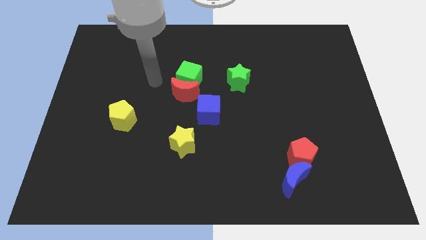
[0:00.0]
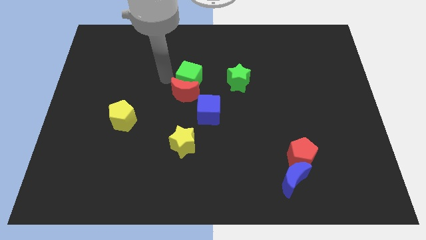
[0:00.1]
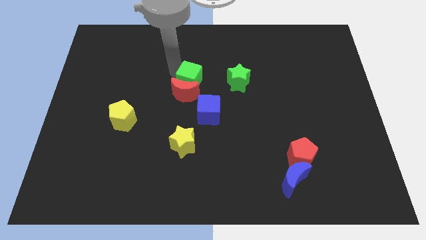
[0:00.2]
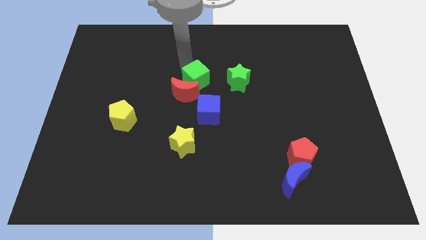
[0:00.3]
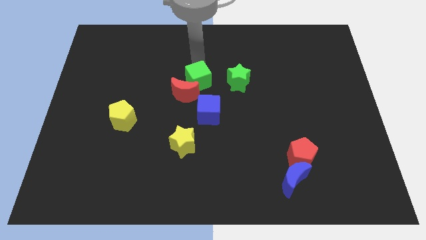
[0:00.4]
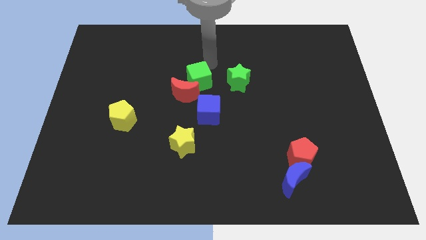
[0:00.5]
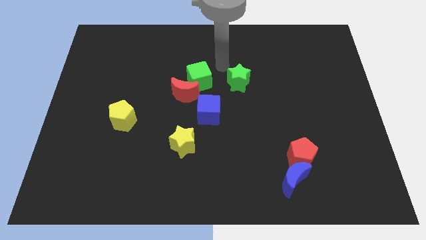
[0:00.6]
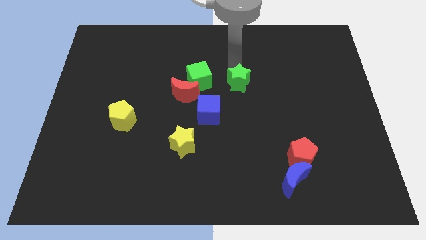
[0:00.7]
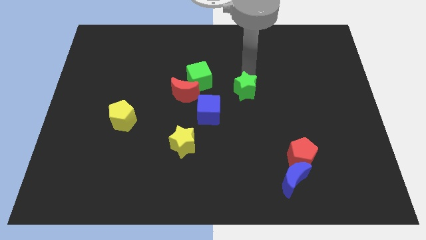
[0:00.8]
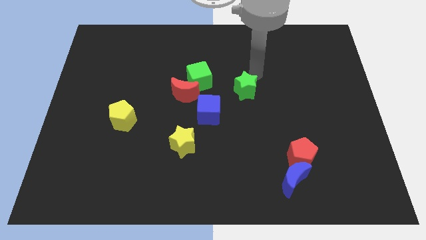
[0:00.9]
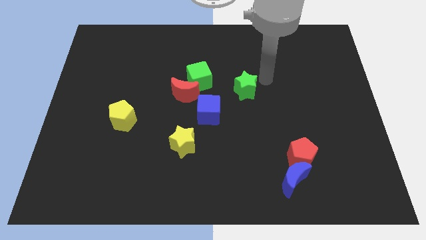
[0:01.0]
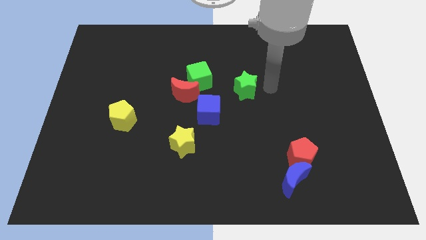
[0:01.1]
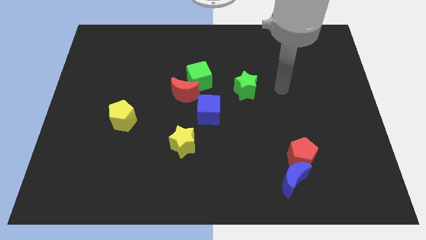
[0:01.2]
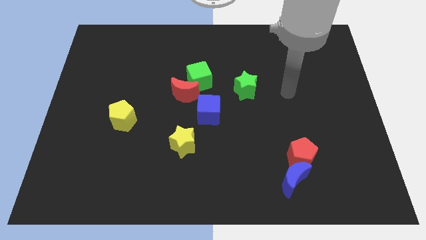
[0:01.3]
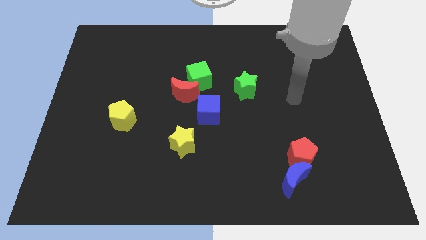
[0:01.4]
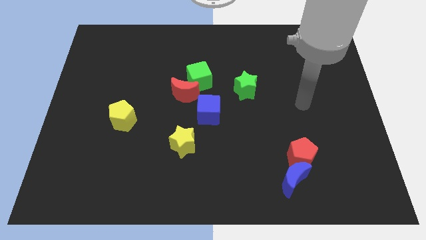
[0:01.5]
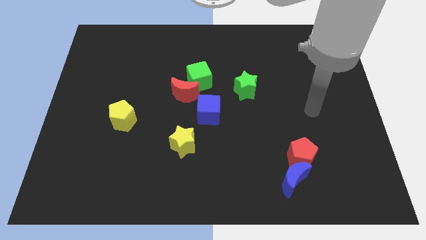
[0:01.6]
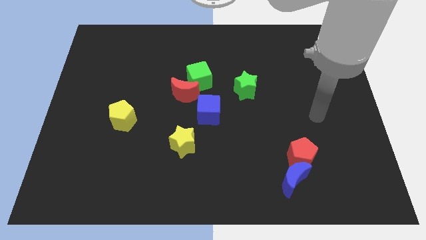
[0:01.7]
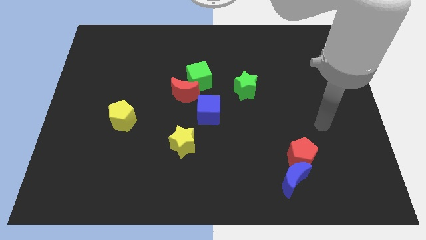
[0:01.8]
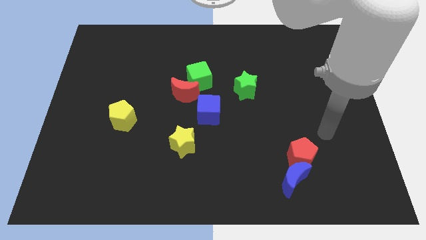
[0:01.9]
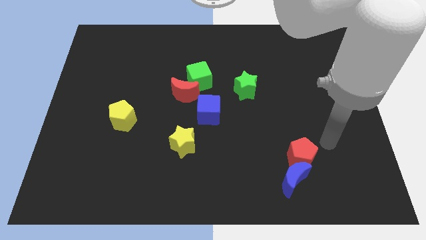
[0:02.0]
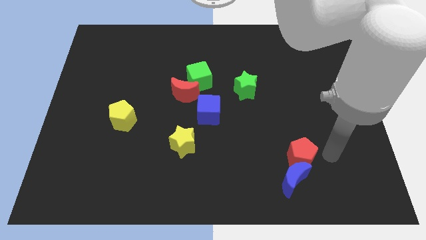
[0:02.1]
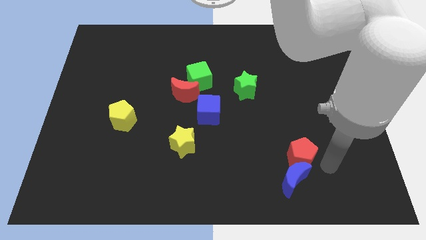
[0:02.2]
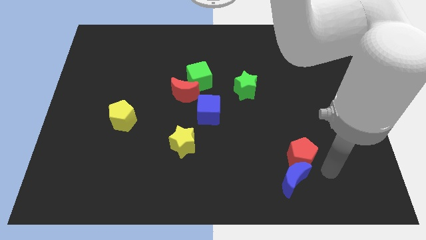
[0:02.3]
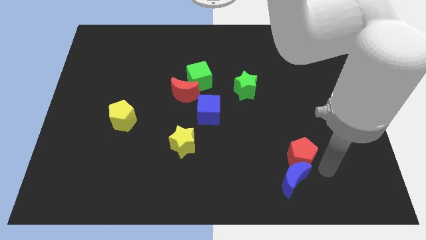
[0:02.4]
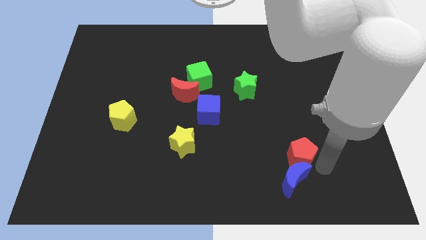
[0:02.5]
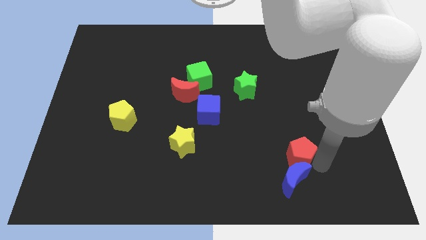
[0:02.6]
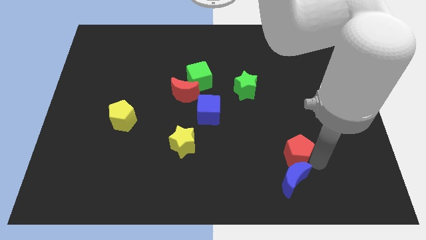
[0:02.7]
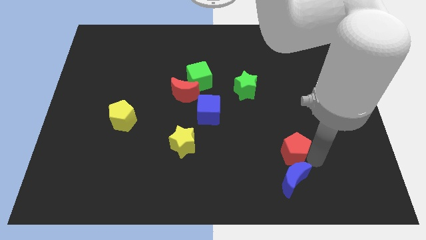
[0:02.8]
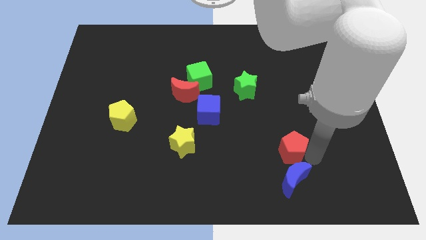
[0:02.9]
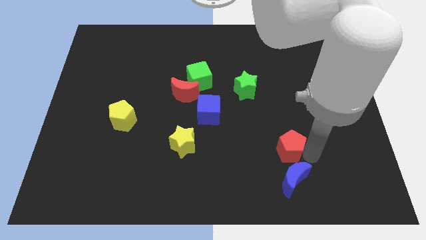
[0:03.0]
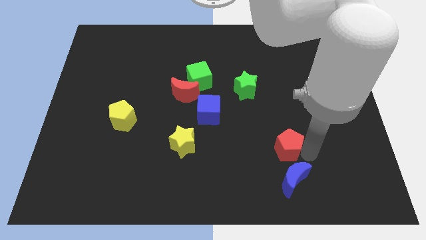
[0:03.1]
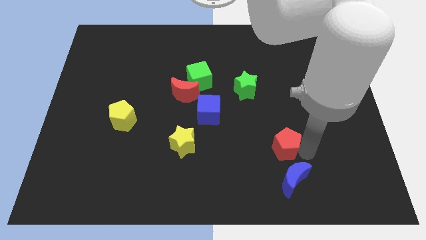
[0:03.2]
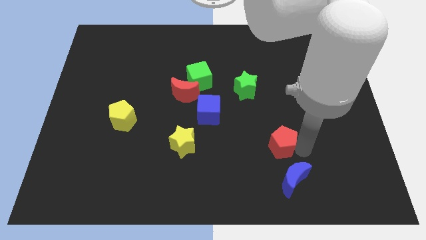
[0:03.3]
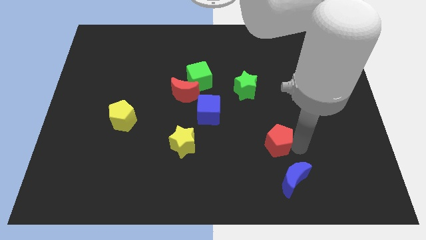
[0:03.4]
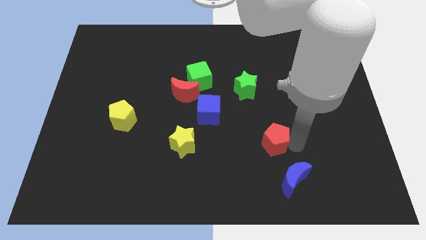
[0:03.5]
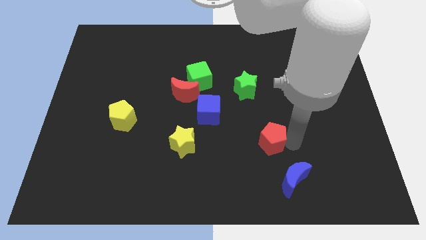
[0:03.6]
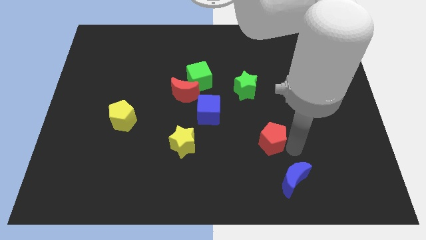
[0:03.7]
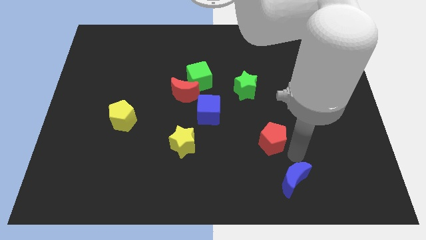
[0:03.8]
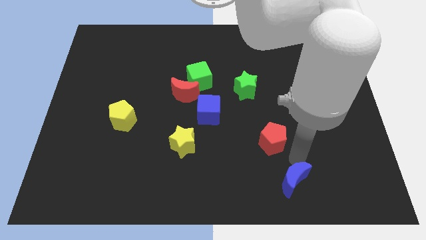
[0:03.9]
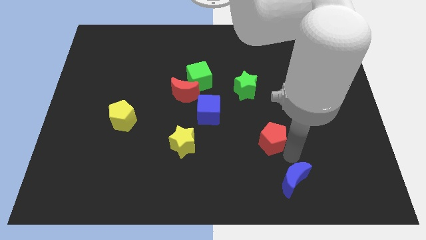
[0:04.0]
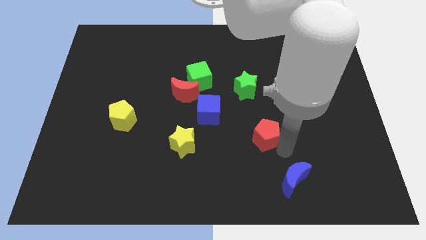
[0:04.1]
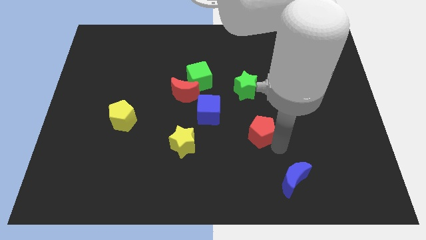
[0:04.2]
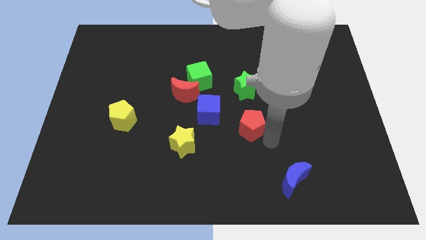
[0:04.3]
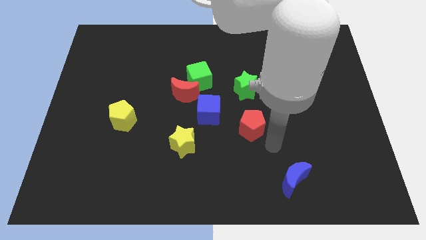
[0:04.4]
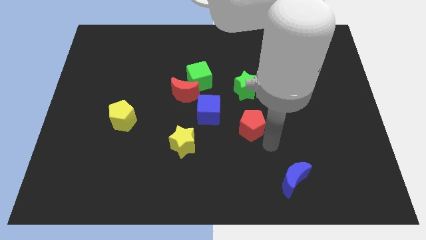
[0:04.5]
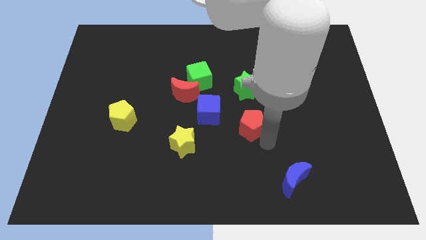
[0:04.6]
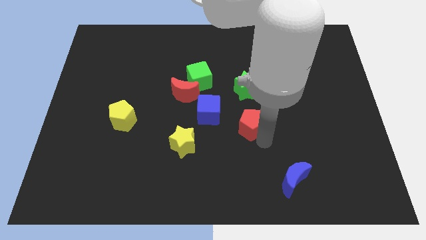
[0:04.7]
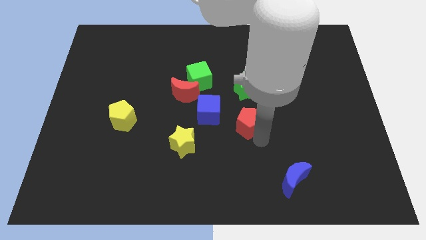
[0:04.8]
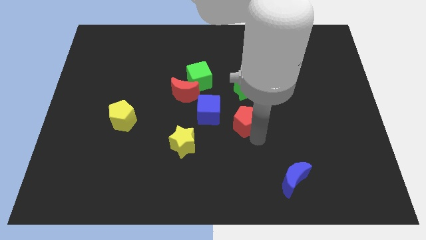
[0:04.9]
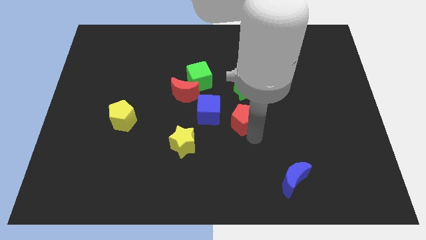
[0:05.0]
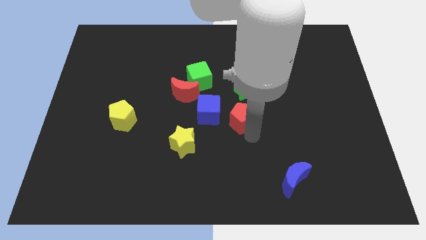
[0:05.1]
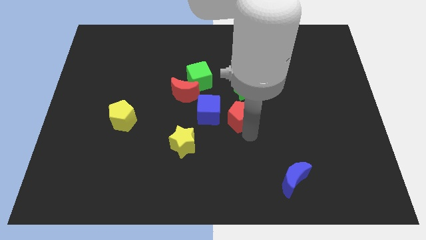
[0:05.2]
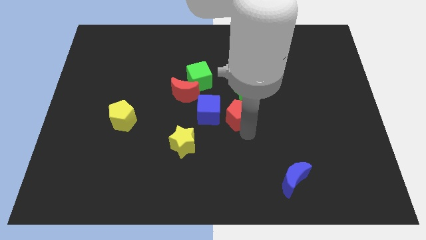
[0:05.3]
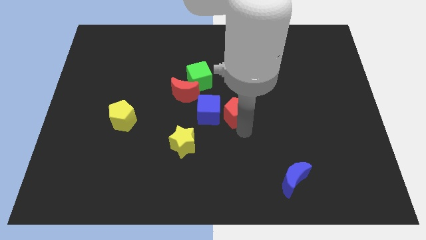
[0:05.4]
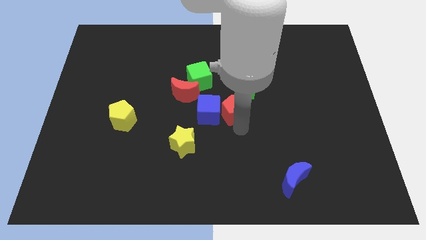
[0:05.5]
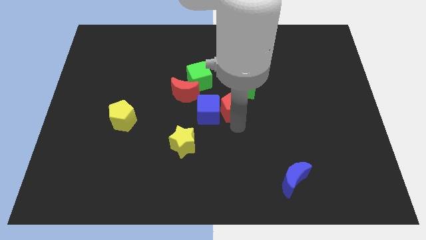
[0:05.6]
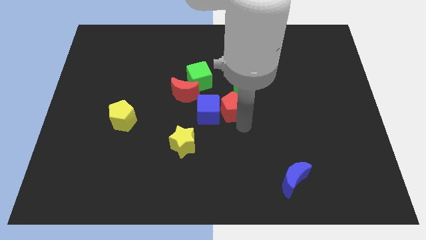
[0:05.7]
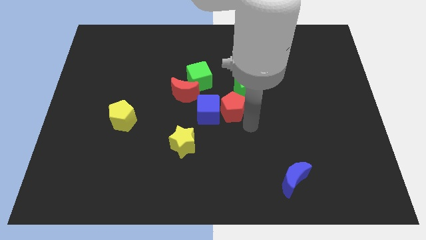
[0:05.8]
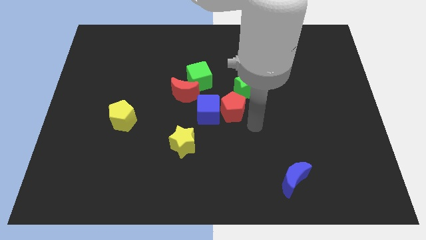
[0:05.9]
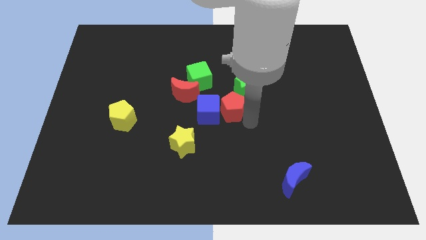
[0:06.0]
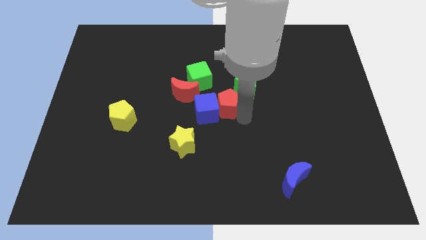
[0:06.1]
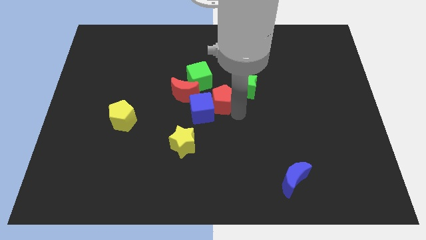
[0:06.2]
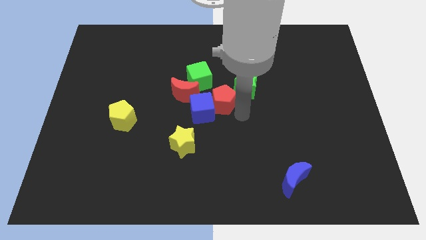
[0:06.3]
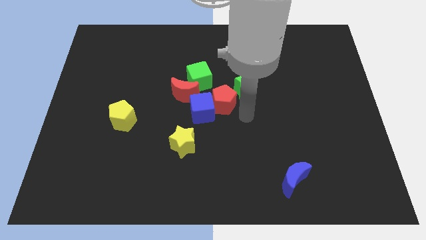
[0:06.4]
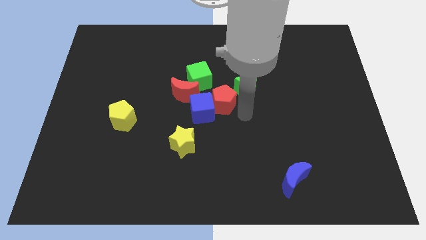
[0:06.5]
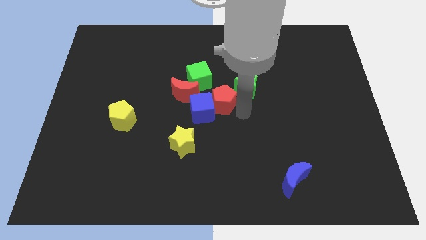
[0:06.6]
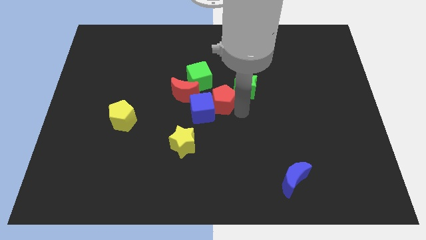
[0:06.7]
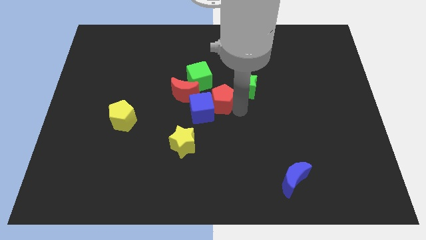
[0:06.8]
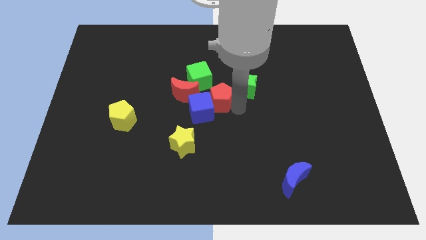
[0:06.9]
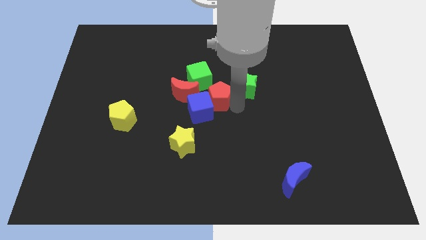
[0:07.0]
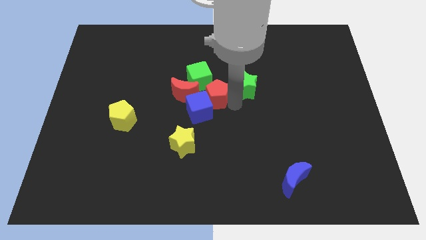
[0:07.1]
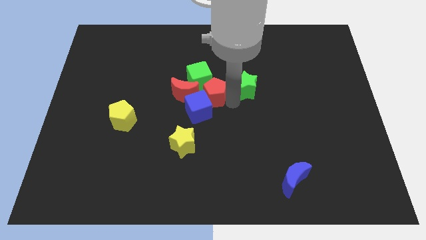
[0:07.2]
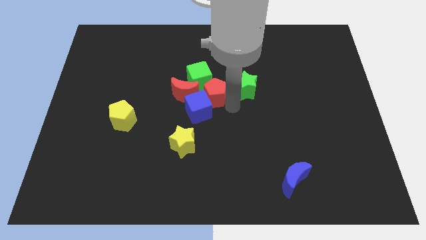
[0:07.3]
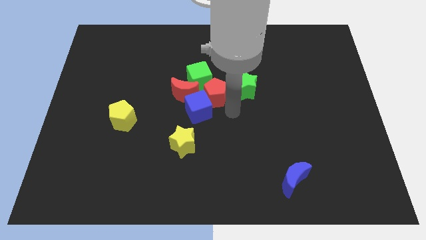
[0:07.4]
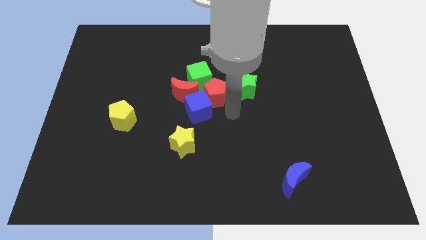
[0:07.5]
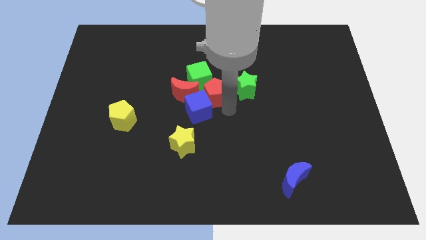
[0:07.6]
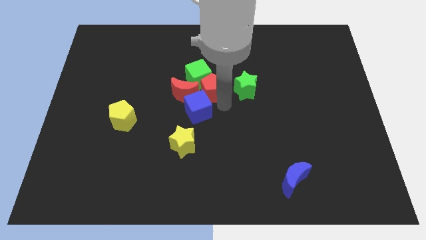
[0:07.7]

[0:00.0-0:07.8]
move the red pentagon close to the green cube
